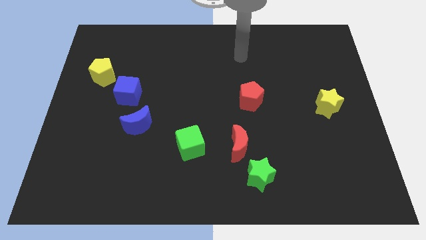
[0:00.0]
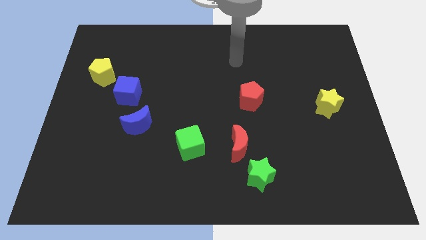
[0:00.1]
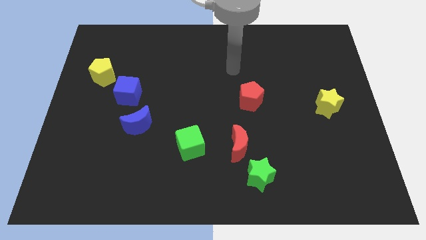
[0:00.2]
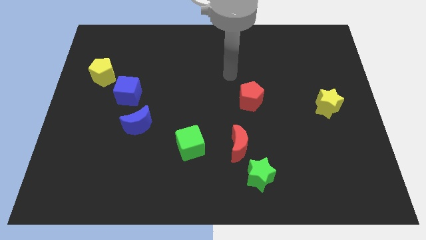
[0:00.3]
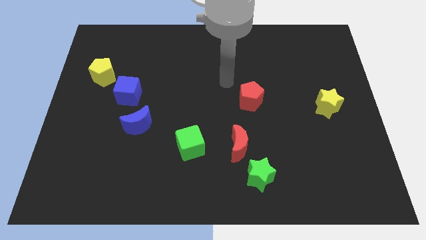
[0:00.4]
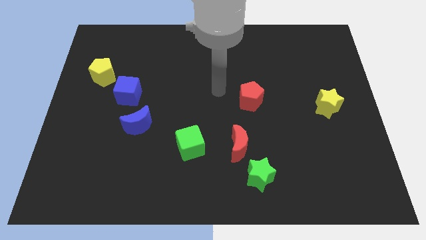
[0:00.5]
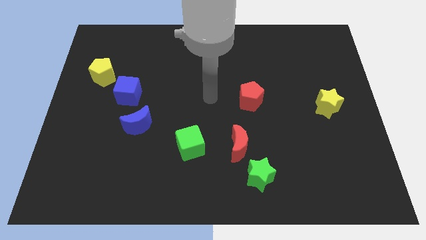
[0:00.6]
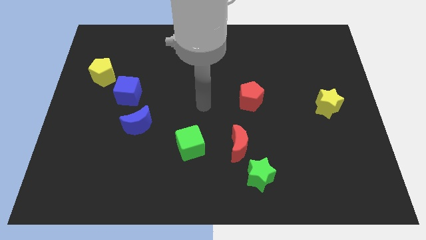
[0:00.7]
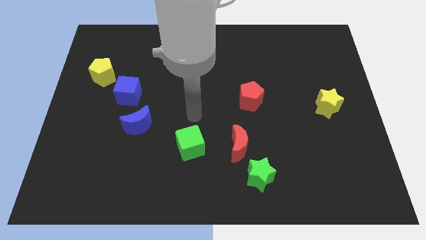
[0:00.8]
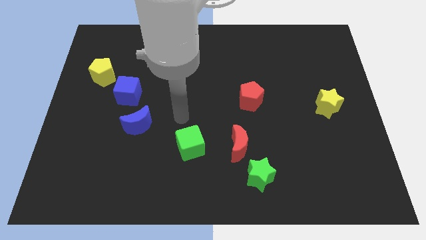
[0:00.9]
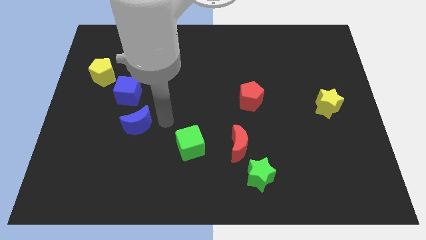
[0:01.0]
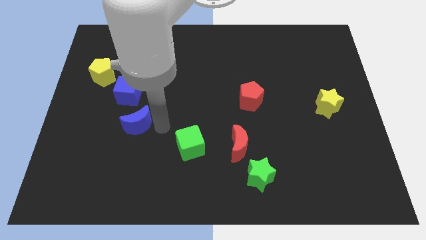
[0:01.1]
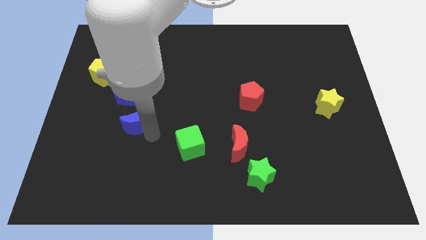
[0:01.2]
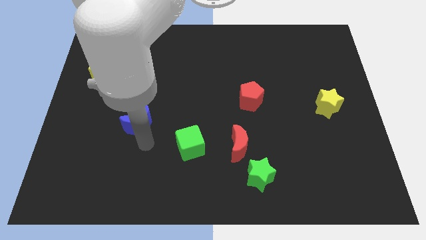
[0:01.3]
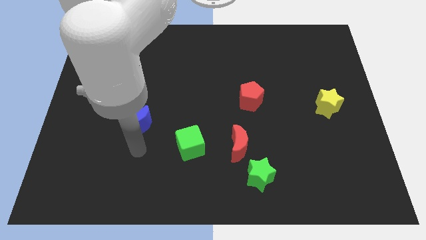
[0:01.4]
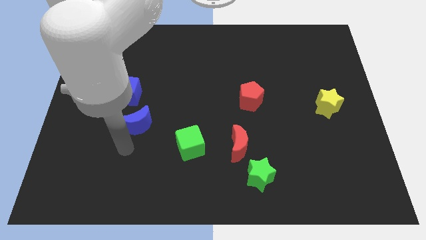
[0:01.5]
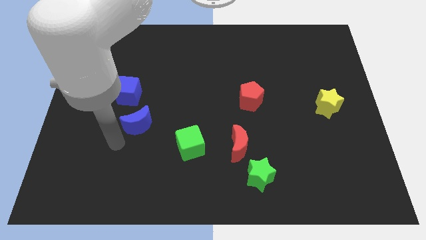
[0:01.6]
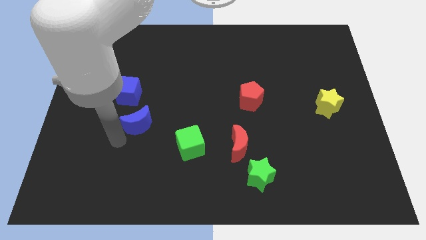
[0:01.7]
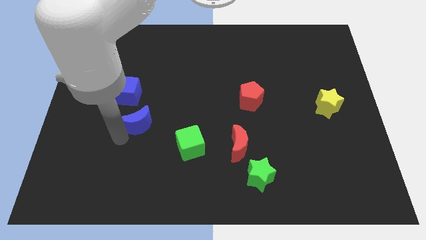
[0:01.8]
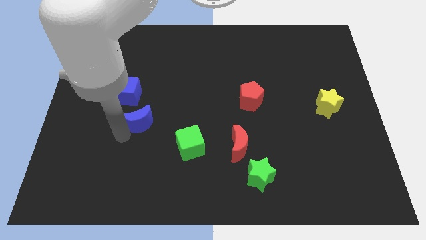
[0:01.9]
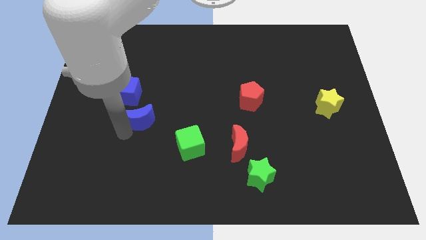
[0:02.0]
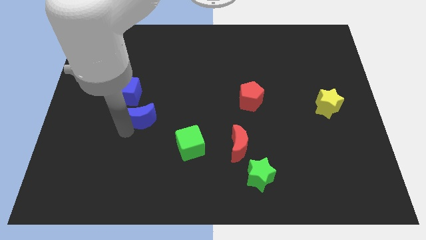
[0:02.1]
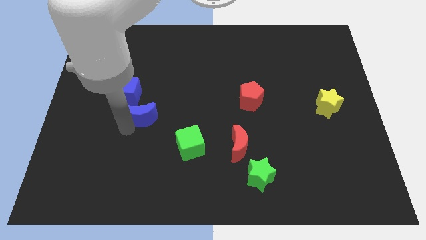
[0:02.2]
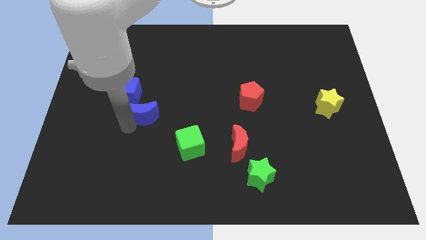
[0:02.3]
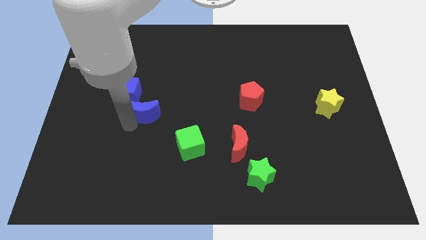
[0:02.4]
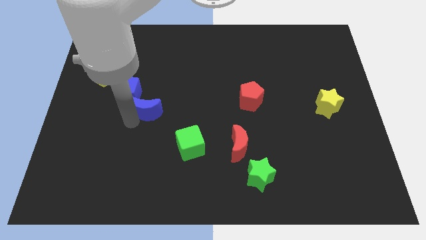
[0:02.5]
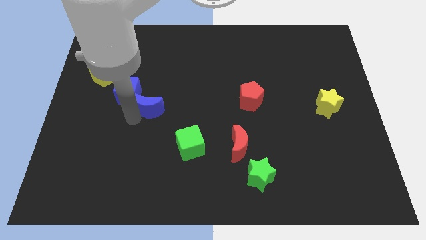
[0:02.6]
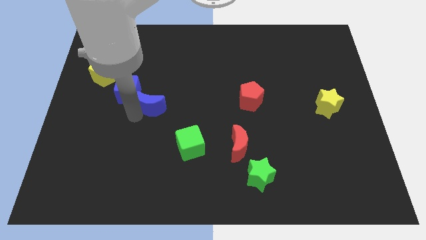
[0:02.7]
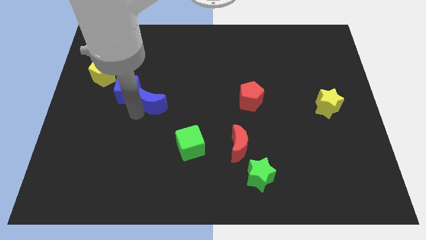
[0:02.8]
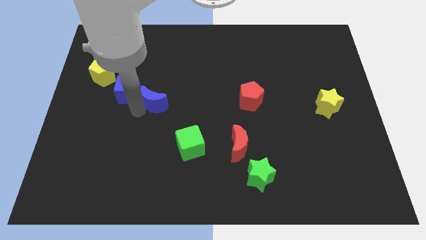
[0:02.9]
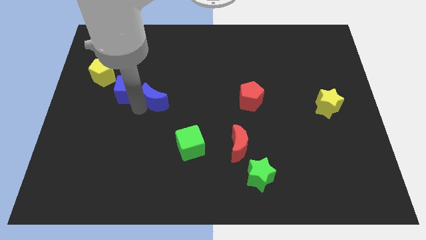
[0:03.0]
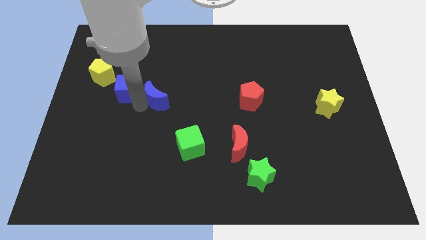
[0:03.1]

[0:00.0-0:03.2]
slide the blue moon a little diagonally upwards and right

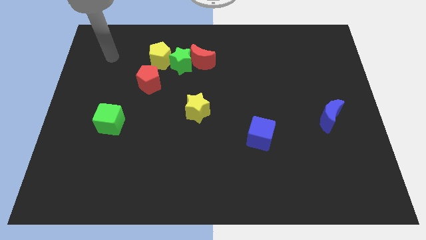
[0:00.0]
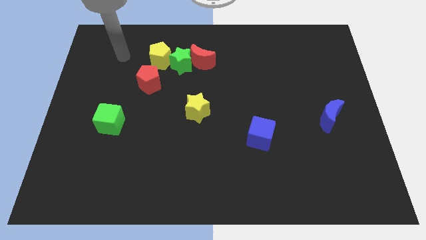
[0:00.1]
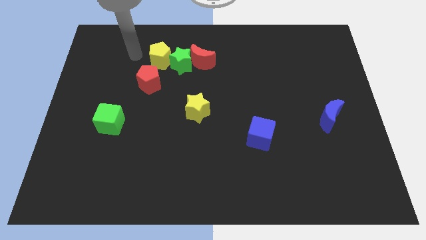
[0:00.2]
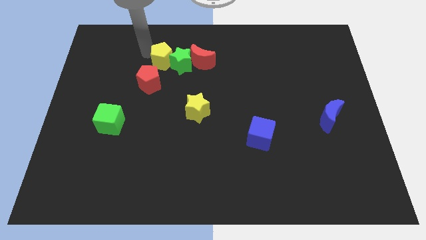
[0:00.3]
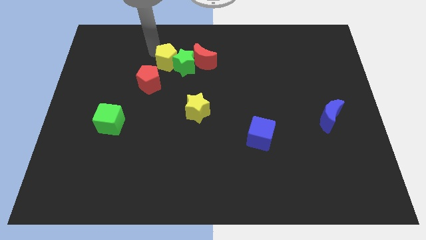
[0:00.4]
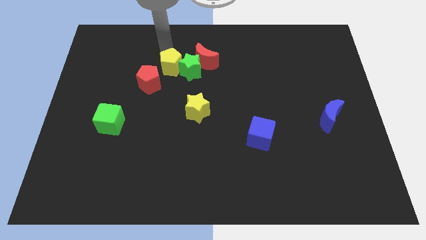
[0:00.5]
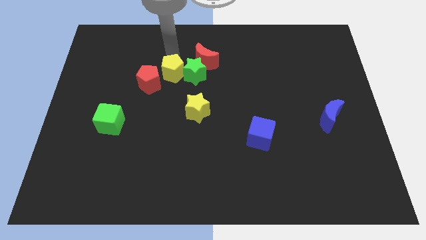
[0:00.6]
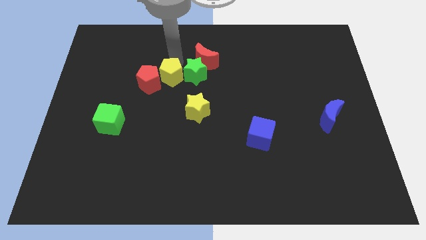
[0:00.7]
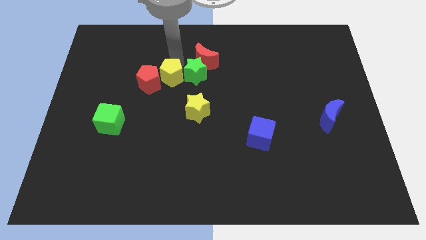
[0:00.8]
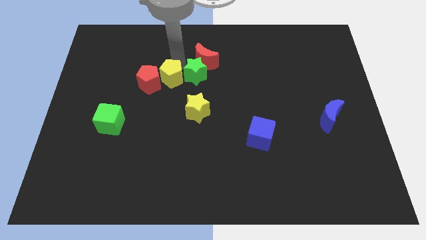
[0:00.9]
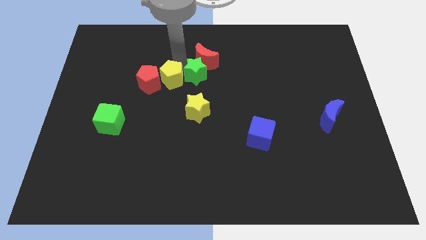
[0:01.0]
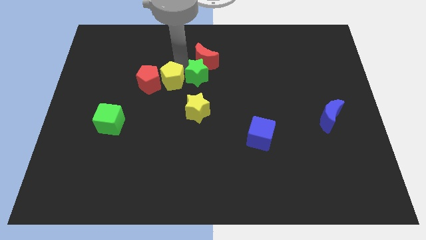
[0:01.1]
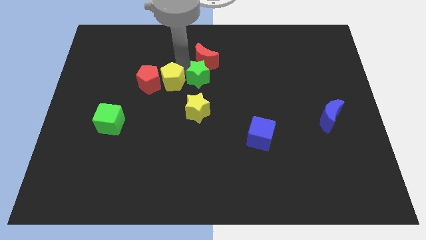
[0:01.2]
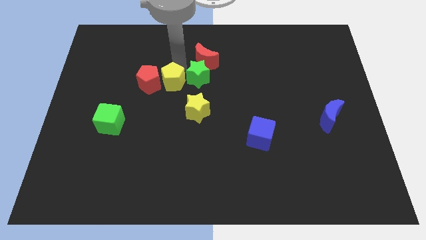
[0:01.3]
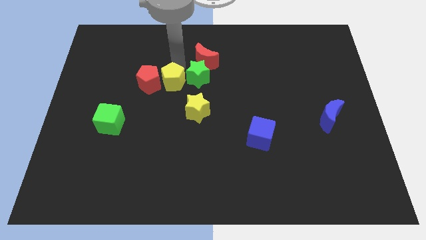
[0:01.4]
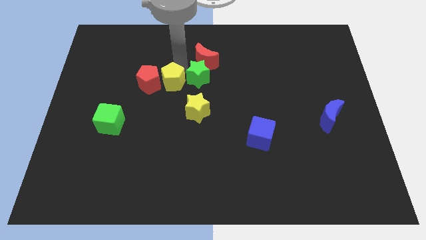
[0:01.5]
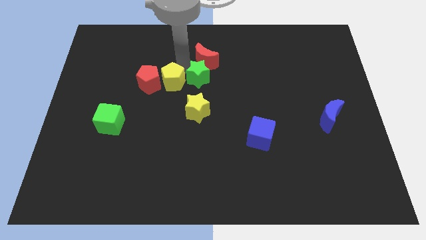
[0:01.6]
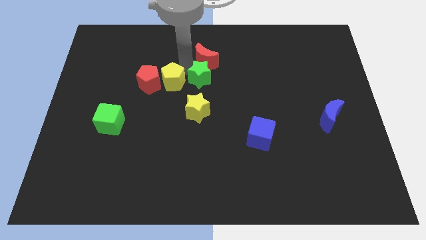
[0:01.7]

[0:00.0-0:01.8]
push the green star a little bit down and to the right

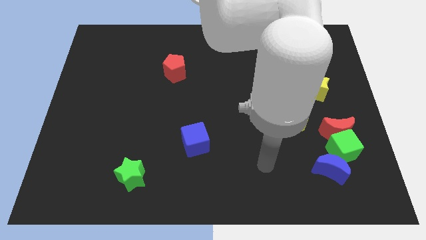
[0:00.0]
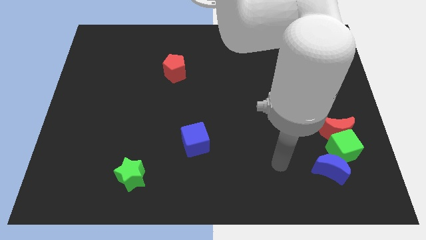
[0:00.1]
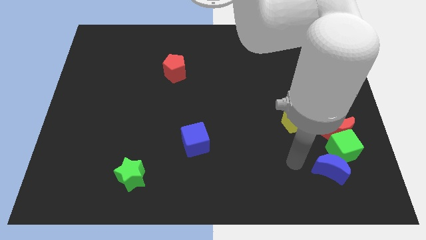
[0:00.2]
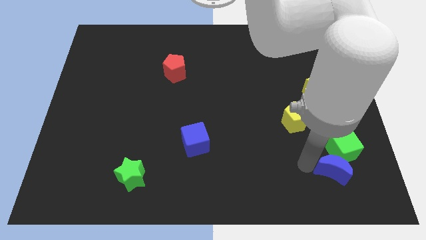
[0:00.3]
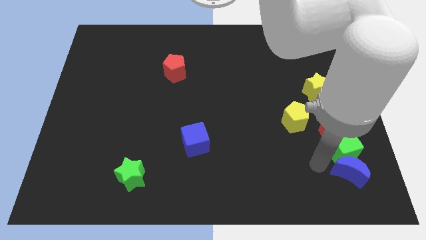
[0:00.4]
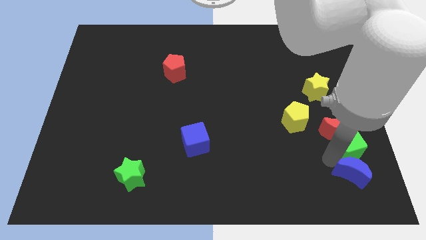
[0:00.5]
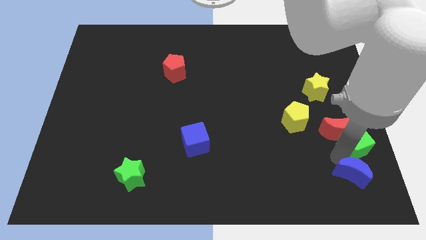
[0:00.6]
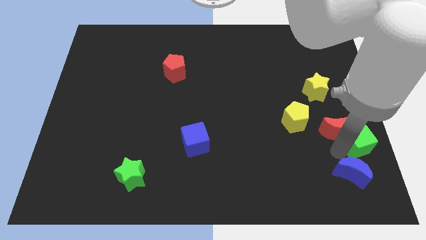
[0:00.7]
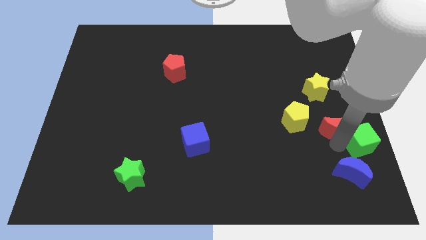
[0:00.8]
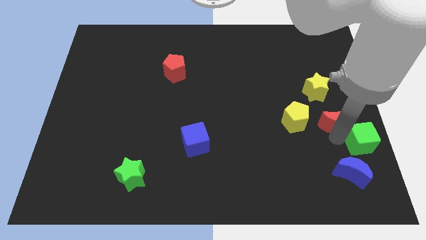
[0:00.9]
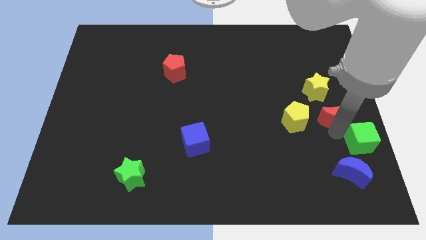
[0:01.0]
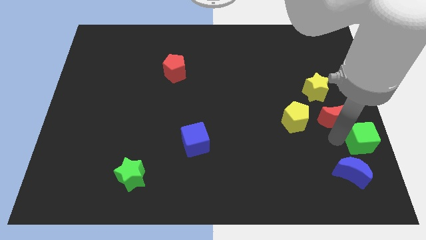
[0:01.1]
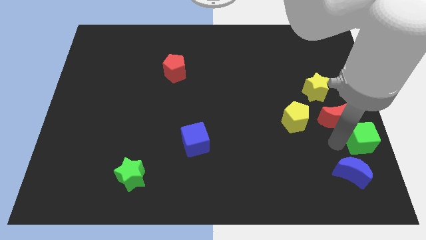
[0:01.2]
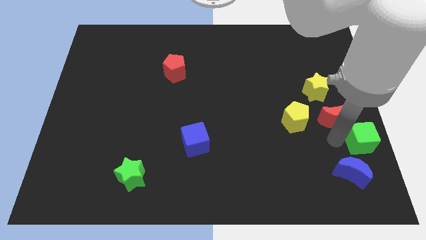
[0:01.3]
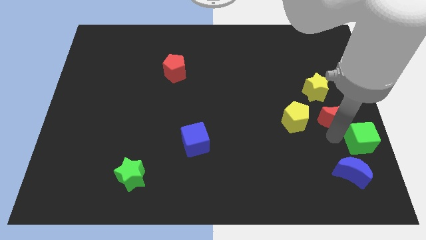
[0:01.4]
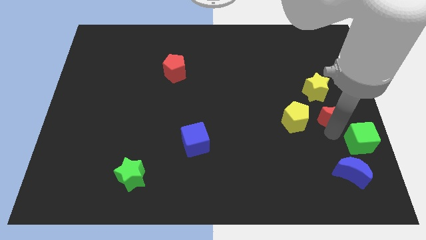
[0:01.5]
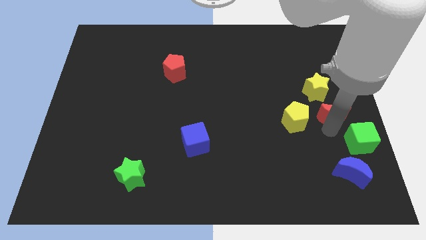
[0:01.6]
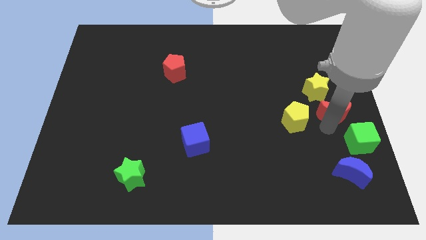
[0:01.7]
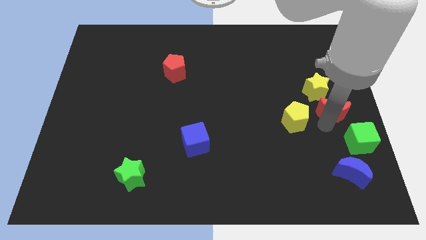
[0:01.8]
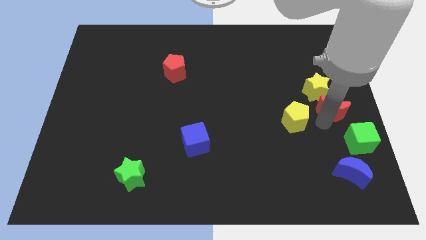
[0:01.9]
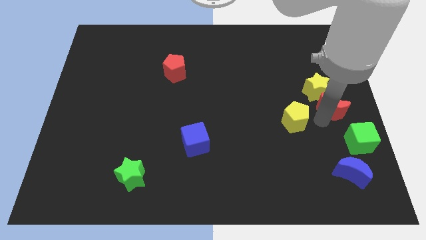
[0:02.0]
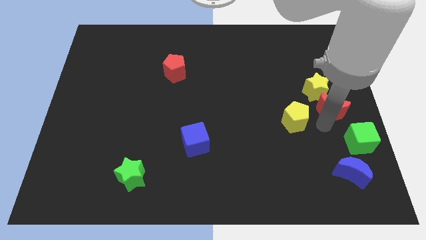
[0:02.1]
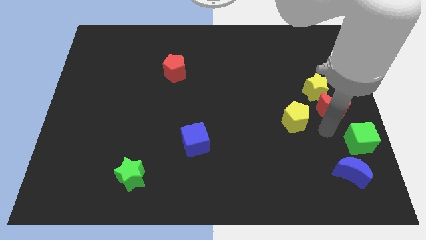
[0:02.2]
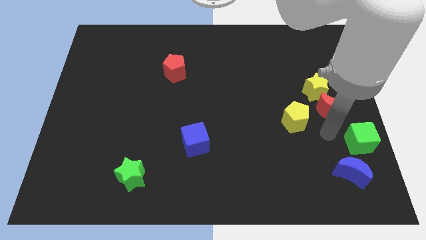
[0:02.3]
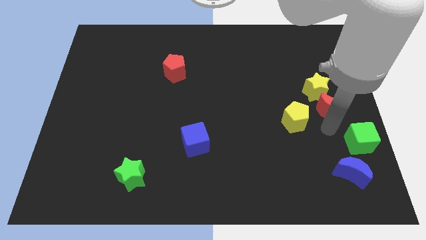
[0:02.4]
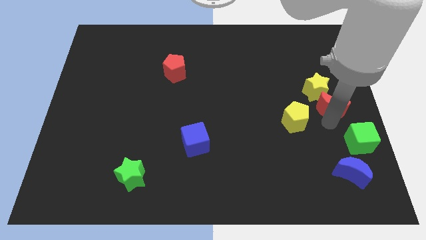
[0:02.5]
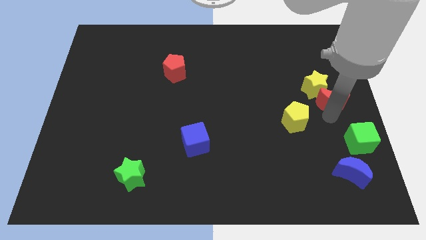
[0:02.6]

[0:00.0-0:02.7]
slightly slide the red moon up

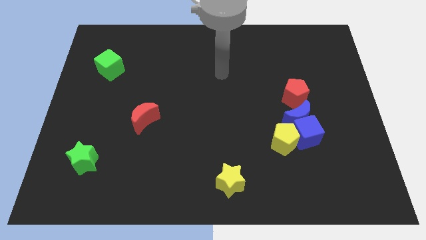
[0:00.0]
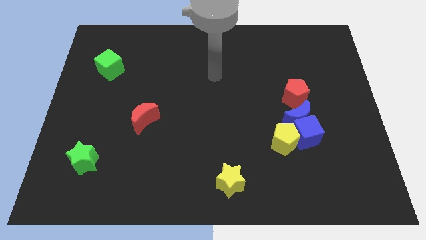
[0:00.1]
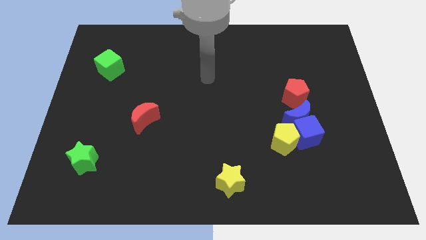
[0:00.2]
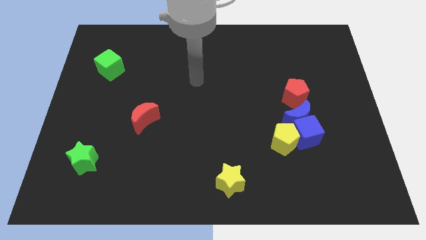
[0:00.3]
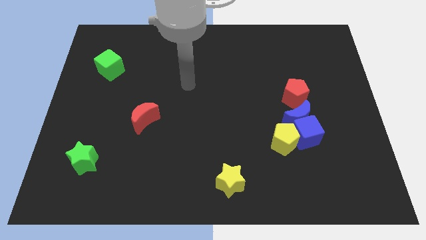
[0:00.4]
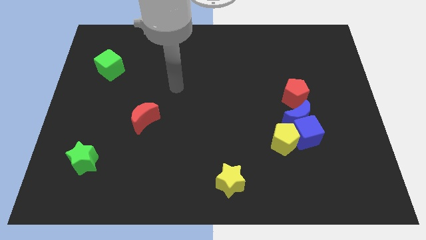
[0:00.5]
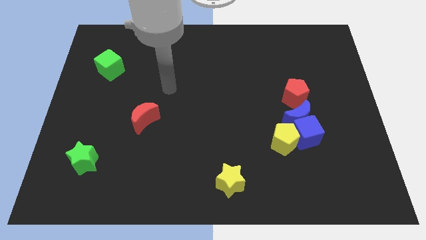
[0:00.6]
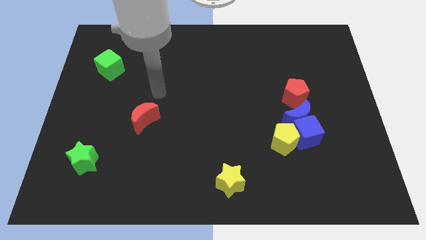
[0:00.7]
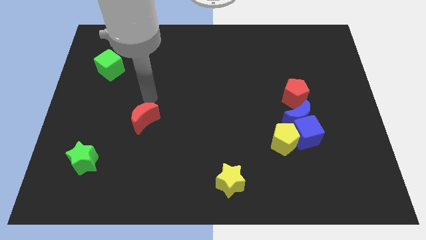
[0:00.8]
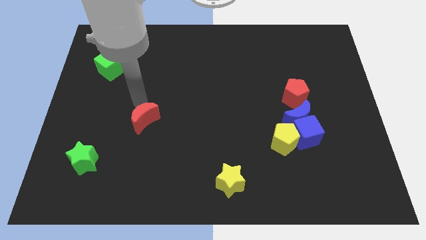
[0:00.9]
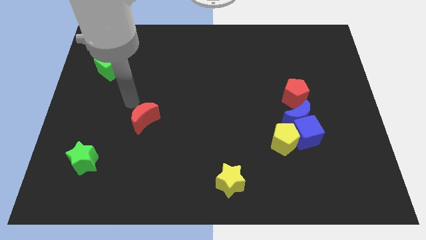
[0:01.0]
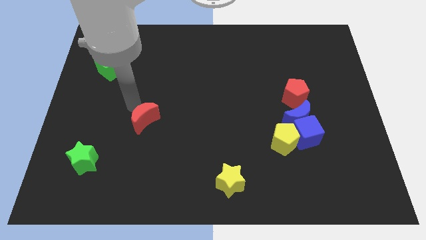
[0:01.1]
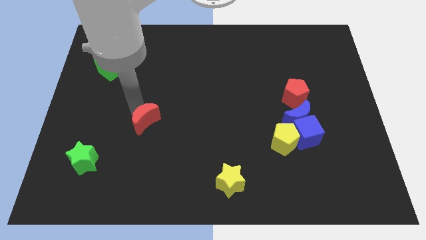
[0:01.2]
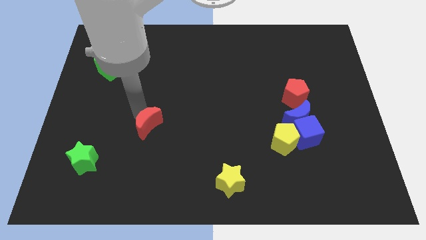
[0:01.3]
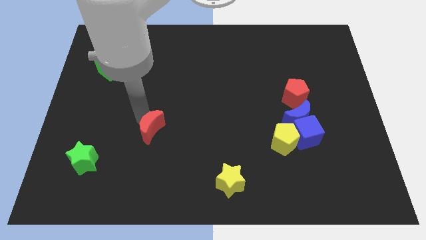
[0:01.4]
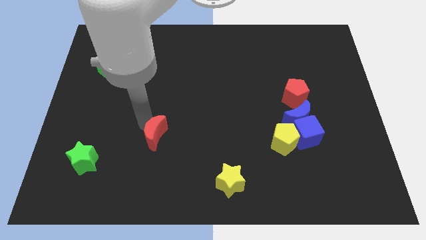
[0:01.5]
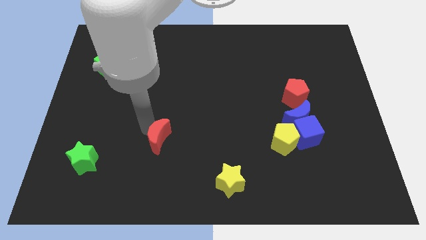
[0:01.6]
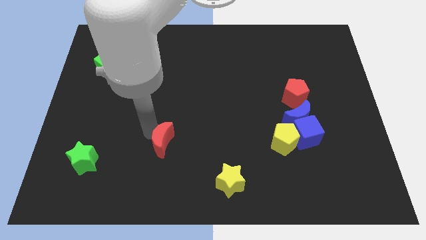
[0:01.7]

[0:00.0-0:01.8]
push the red moon a little down and right diagonally
